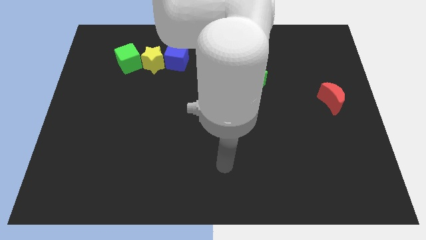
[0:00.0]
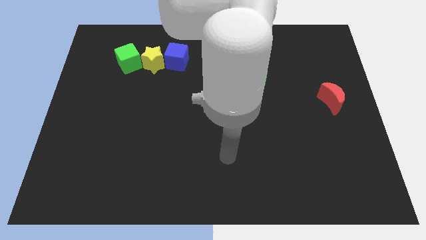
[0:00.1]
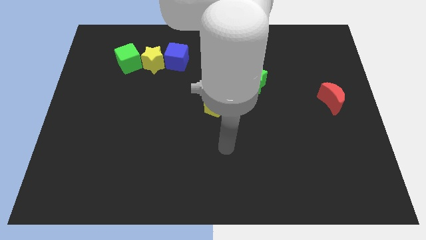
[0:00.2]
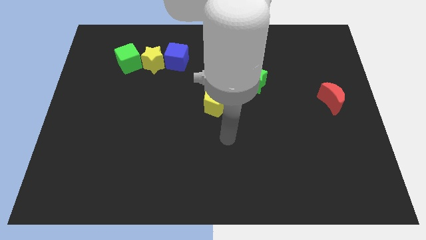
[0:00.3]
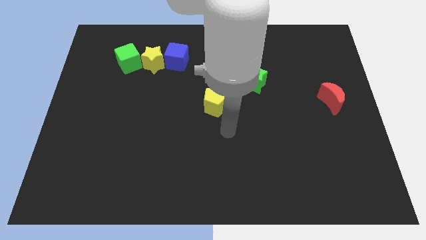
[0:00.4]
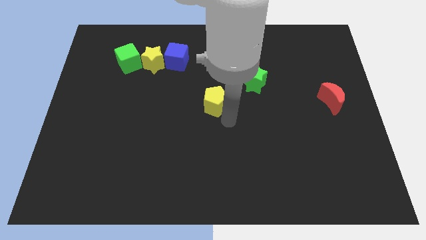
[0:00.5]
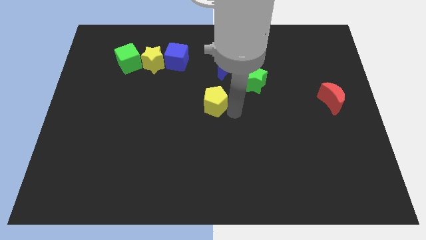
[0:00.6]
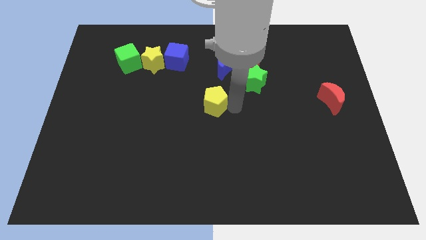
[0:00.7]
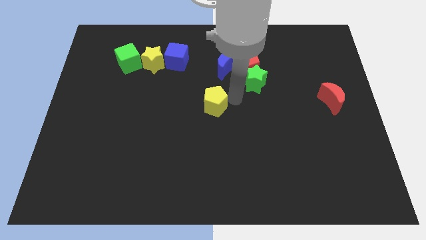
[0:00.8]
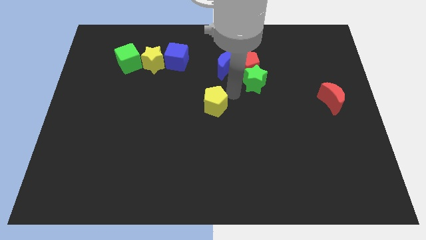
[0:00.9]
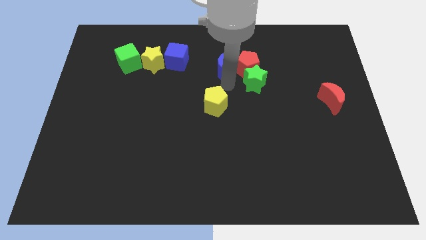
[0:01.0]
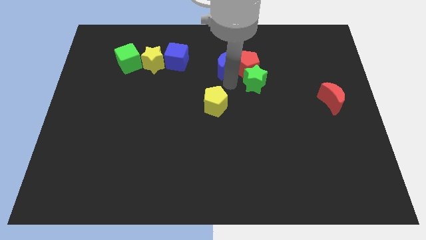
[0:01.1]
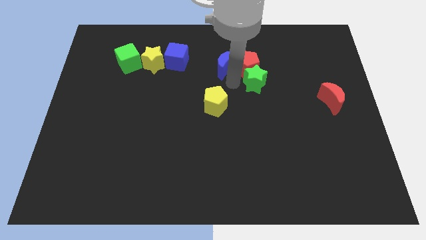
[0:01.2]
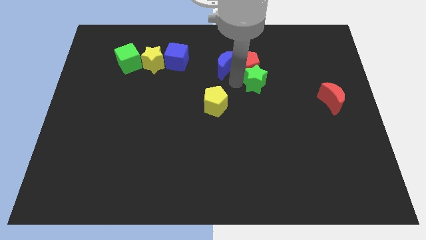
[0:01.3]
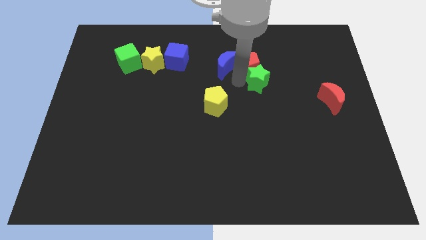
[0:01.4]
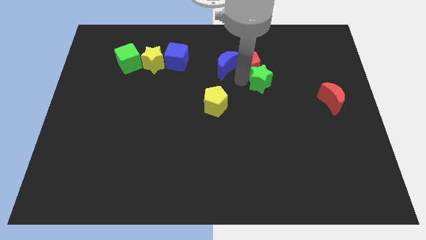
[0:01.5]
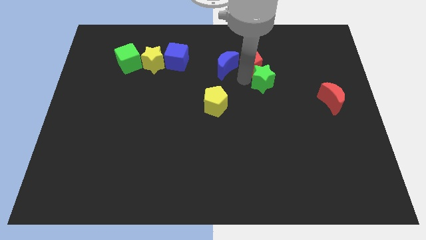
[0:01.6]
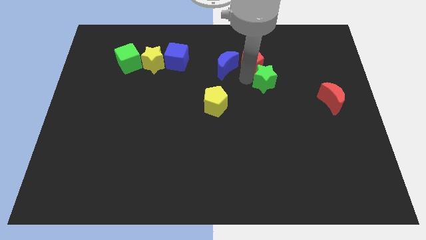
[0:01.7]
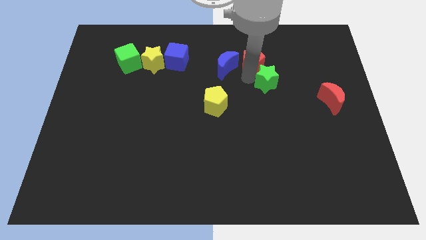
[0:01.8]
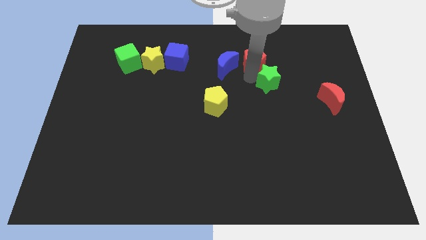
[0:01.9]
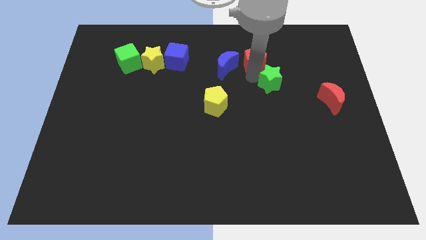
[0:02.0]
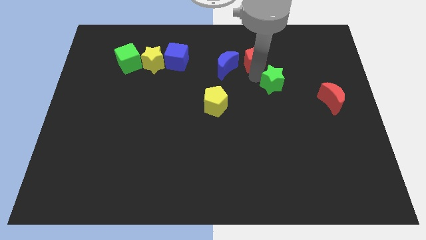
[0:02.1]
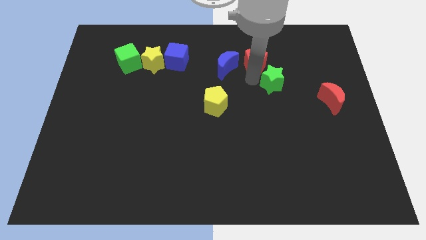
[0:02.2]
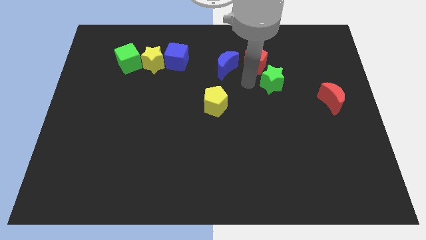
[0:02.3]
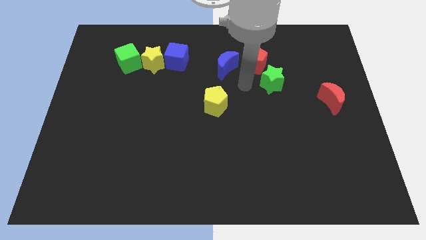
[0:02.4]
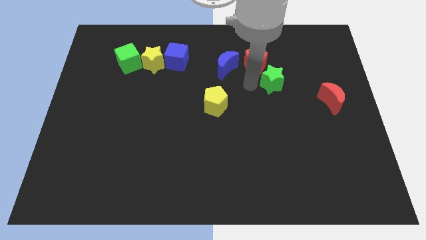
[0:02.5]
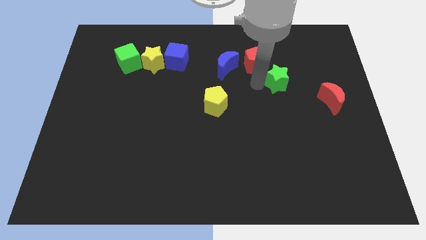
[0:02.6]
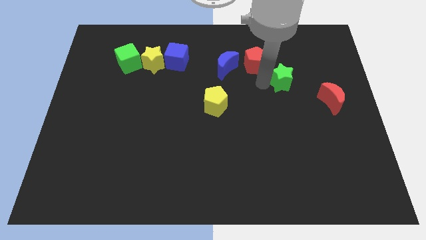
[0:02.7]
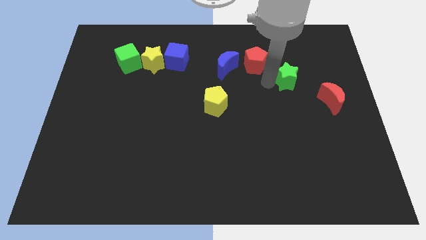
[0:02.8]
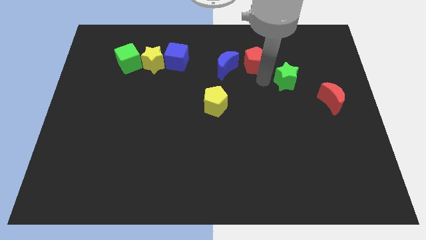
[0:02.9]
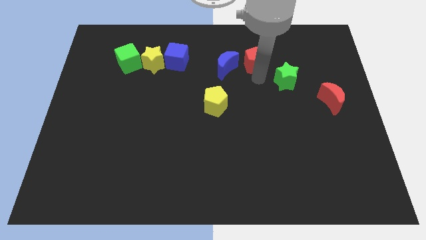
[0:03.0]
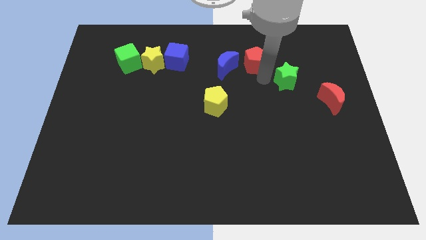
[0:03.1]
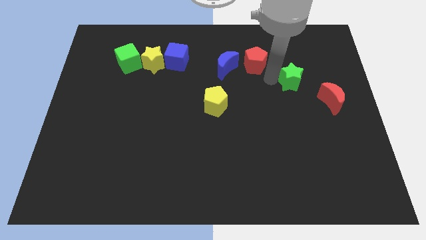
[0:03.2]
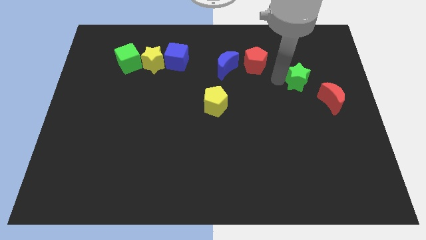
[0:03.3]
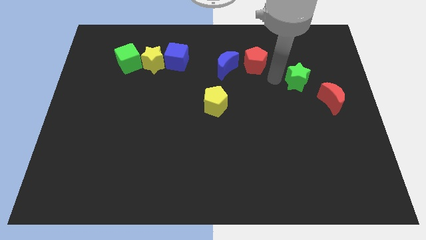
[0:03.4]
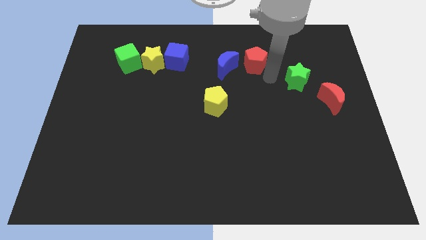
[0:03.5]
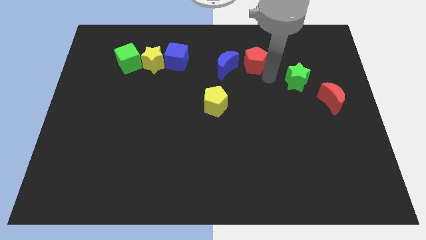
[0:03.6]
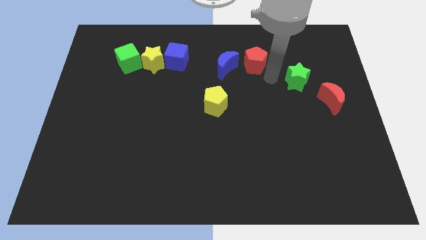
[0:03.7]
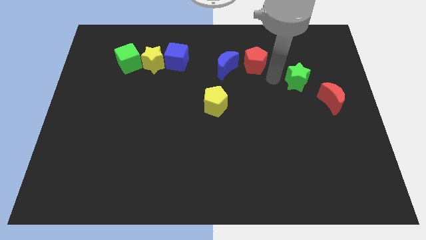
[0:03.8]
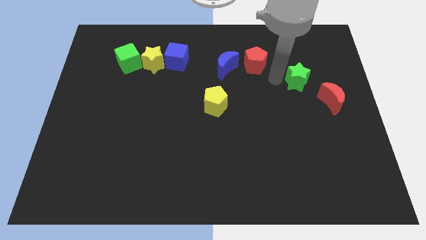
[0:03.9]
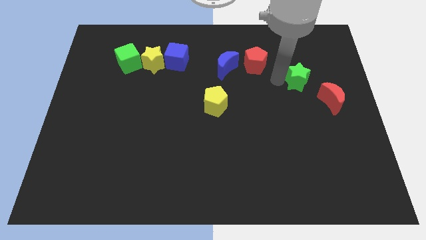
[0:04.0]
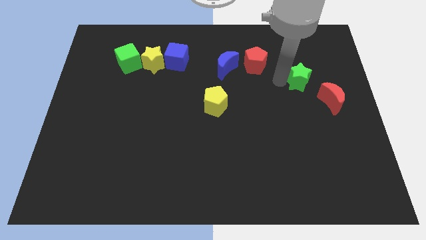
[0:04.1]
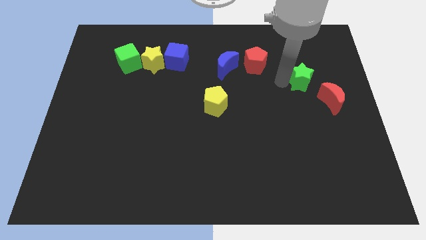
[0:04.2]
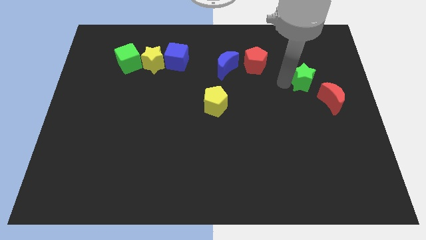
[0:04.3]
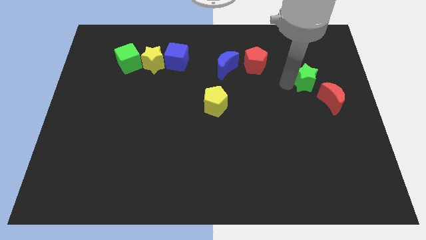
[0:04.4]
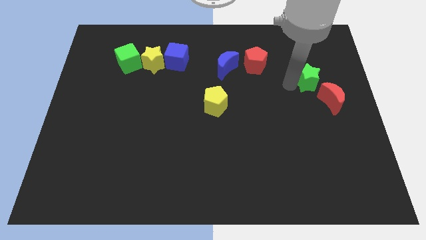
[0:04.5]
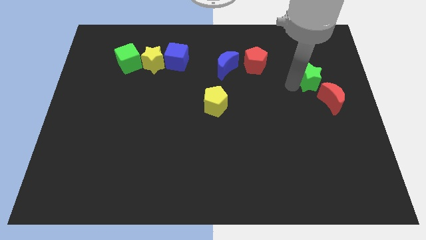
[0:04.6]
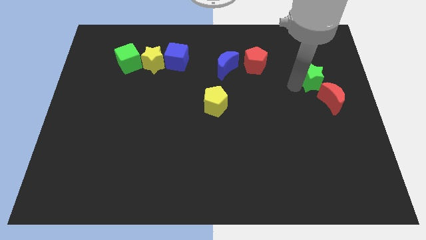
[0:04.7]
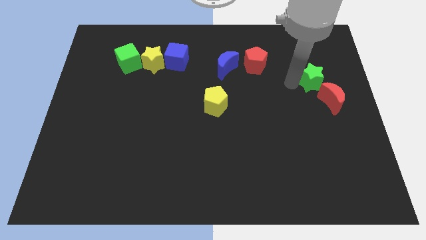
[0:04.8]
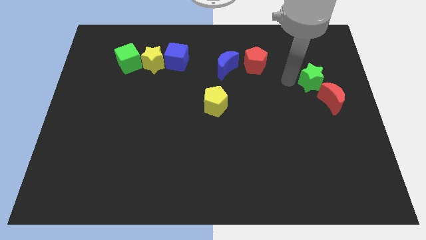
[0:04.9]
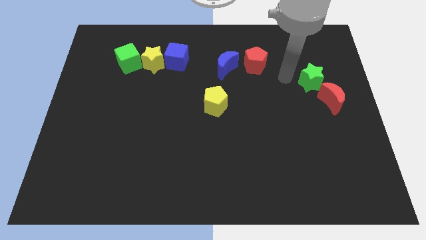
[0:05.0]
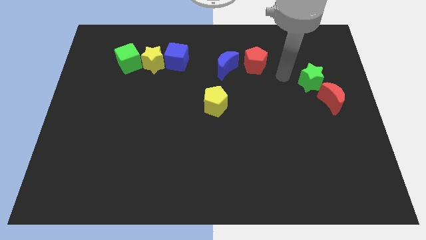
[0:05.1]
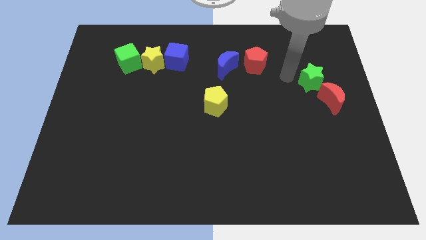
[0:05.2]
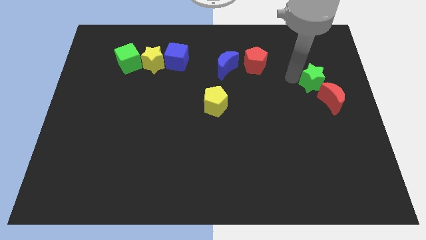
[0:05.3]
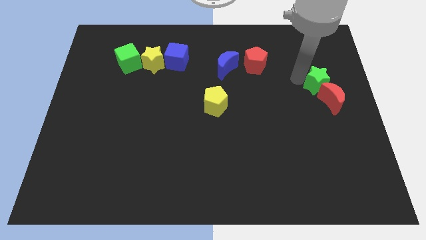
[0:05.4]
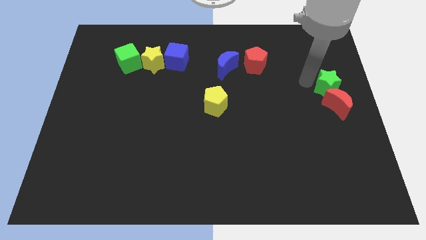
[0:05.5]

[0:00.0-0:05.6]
push the green star to the right side
